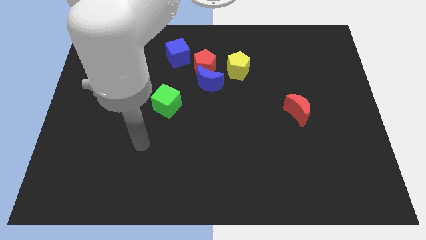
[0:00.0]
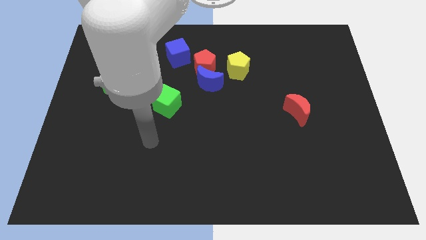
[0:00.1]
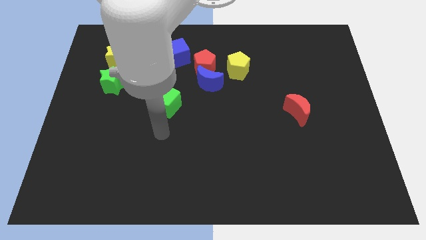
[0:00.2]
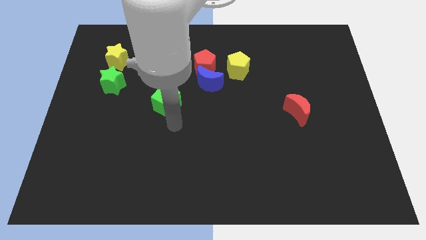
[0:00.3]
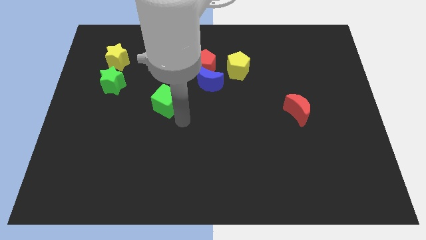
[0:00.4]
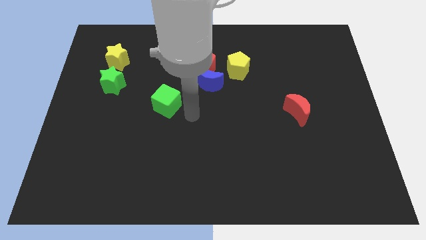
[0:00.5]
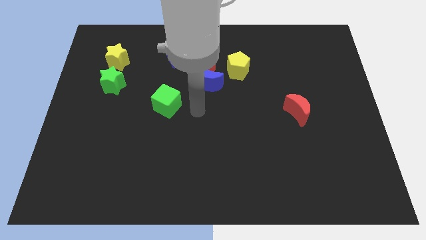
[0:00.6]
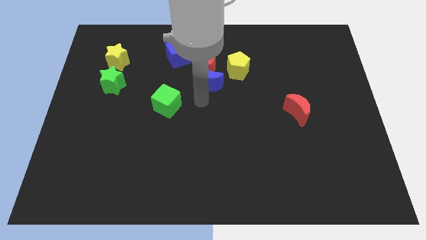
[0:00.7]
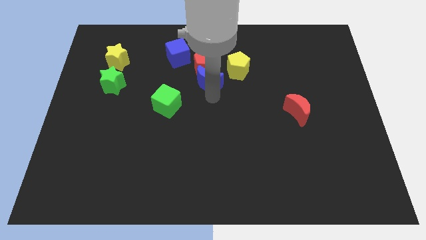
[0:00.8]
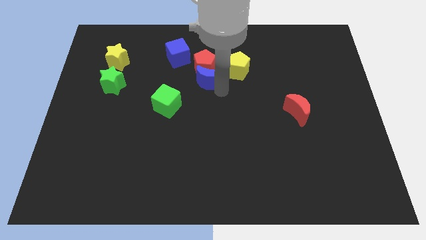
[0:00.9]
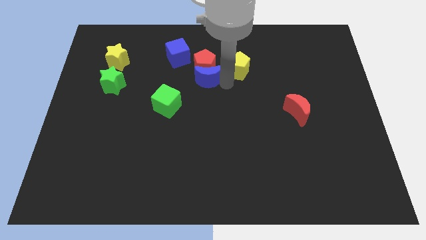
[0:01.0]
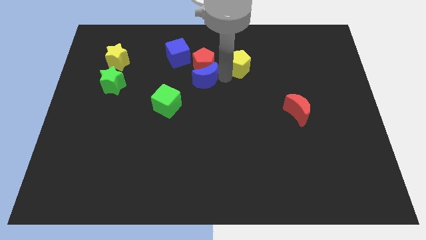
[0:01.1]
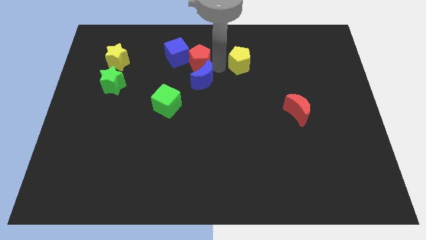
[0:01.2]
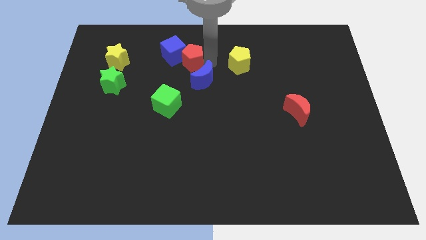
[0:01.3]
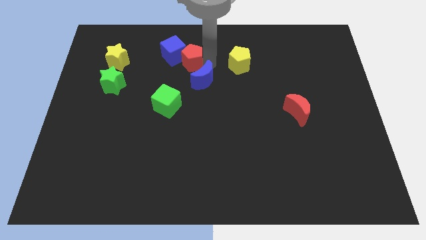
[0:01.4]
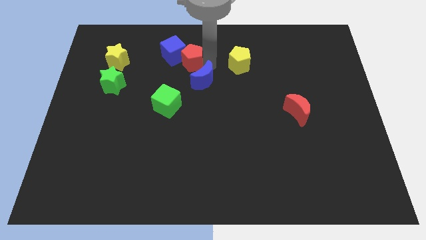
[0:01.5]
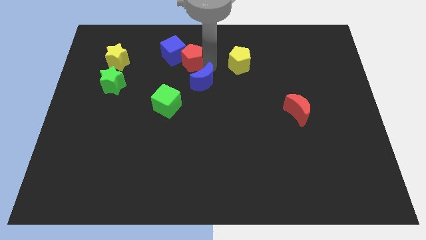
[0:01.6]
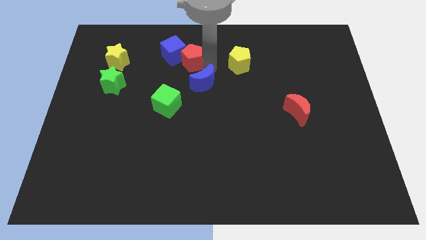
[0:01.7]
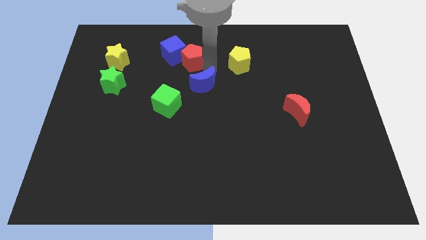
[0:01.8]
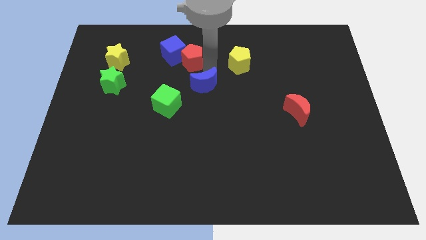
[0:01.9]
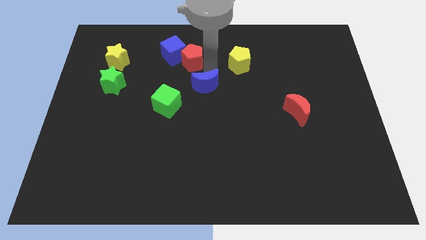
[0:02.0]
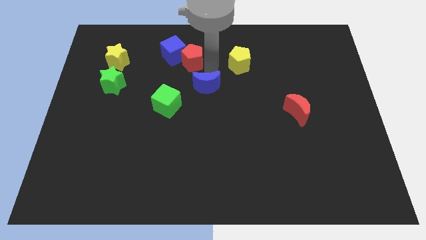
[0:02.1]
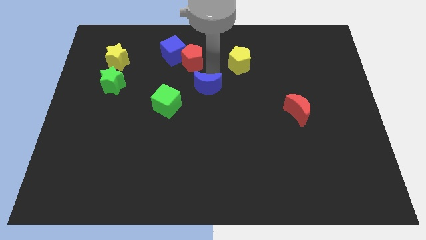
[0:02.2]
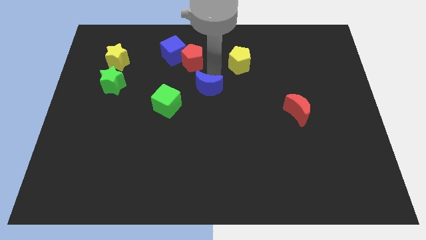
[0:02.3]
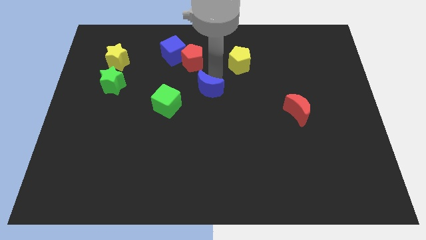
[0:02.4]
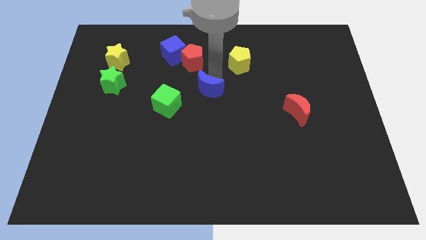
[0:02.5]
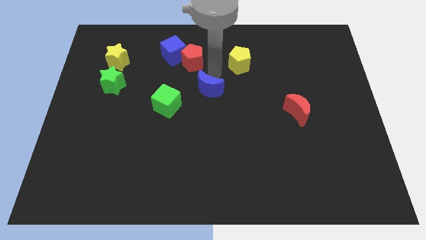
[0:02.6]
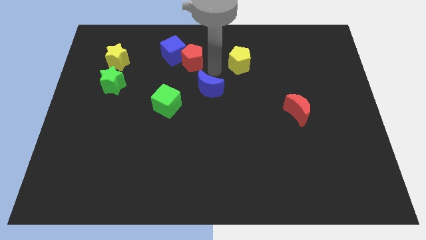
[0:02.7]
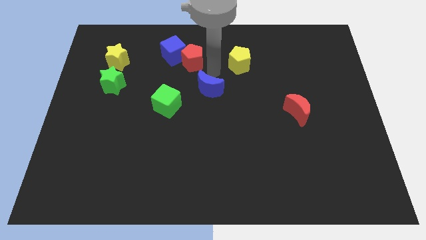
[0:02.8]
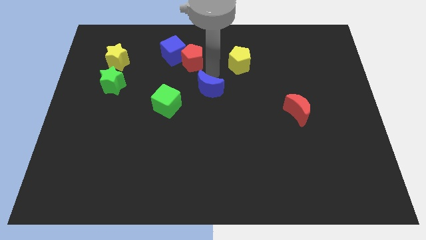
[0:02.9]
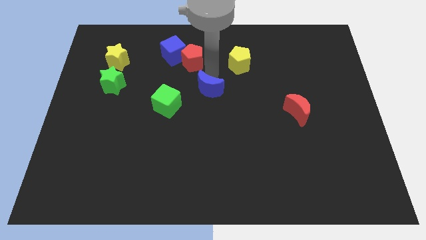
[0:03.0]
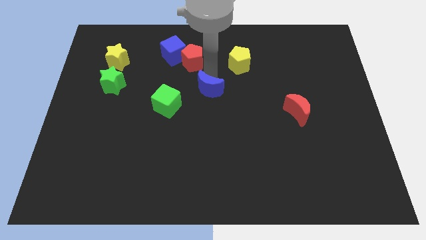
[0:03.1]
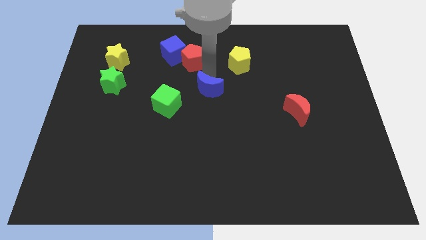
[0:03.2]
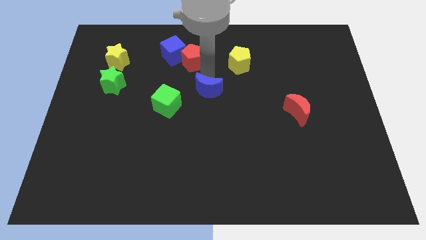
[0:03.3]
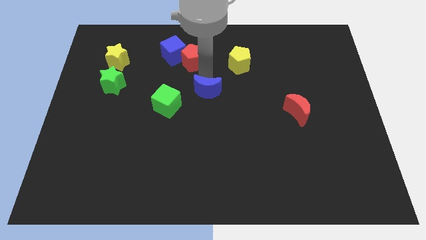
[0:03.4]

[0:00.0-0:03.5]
separate the blue moon from the red pentagon and yellow pentagon

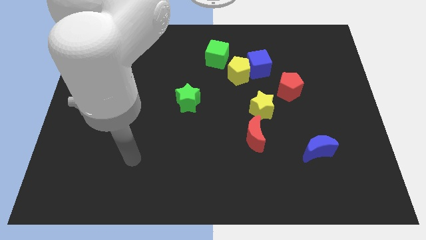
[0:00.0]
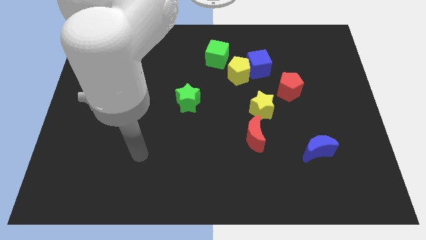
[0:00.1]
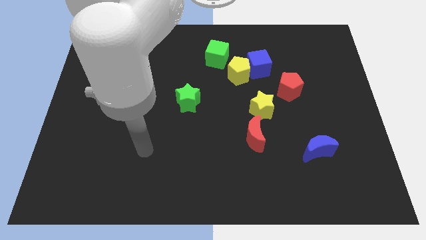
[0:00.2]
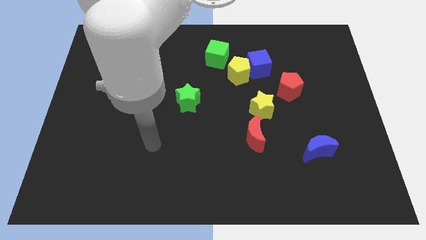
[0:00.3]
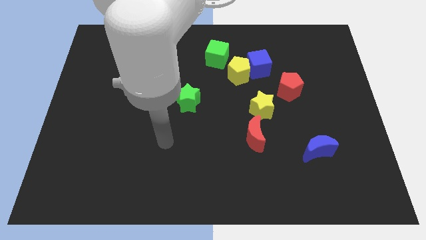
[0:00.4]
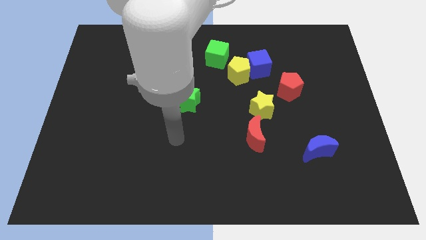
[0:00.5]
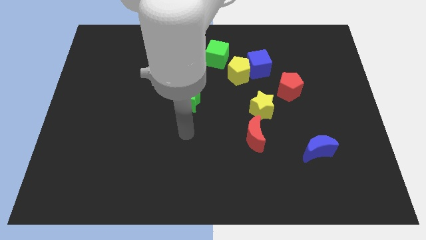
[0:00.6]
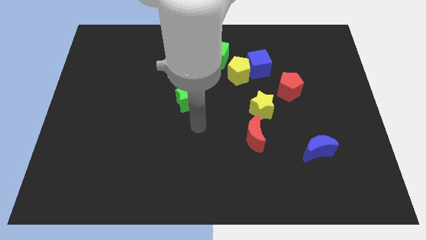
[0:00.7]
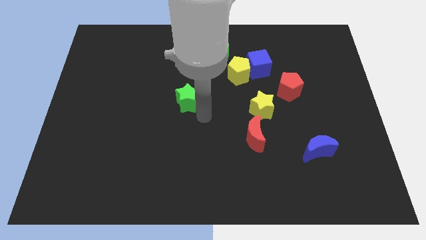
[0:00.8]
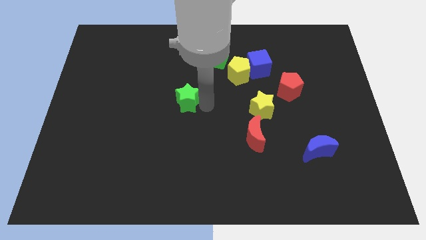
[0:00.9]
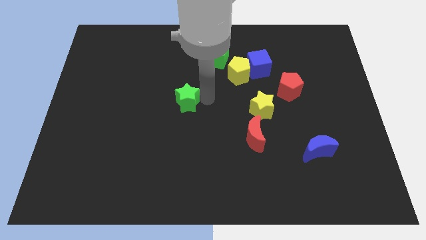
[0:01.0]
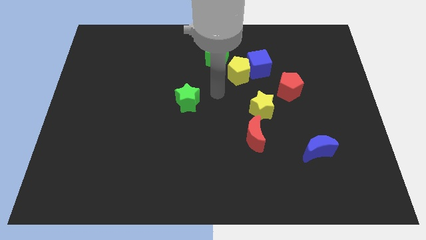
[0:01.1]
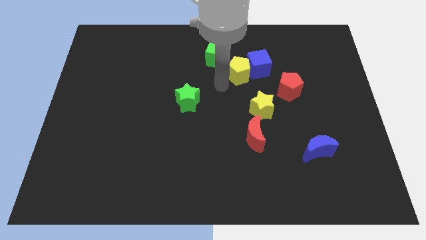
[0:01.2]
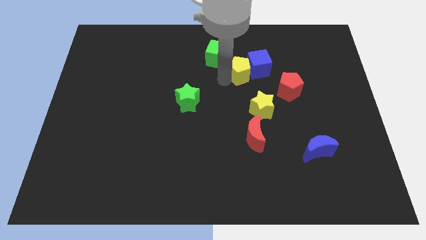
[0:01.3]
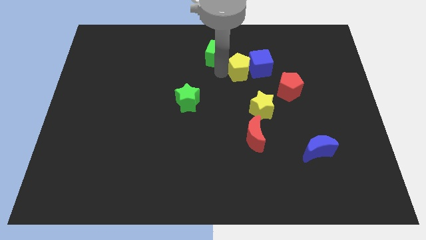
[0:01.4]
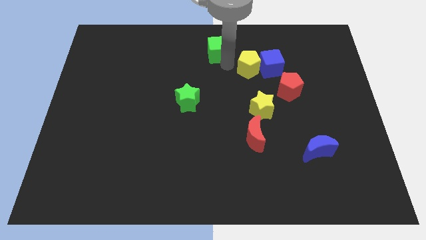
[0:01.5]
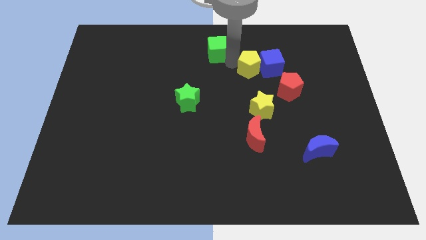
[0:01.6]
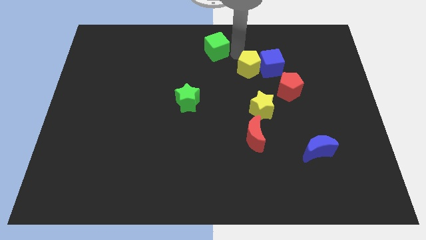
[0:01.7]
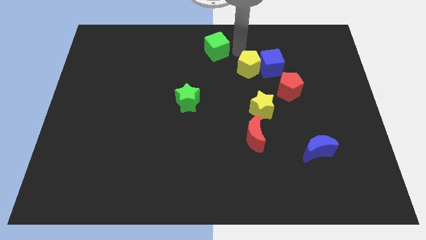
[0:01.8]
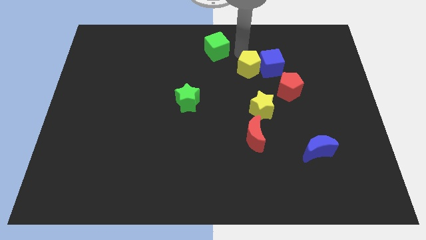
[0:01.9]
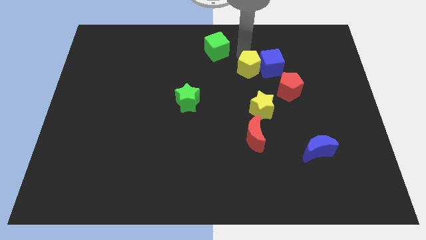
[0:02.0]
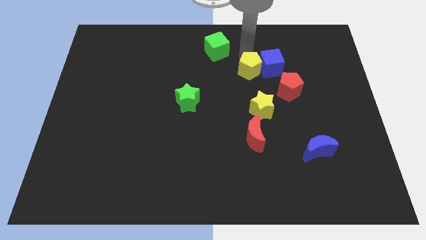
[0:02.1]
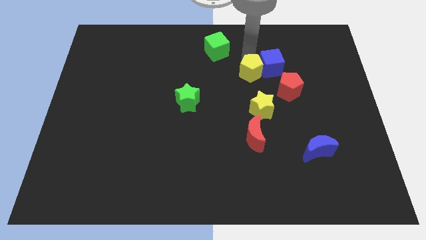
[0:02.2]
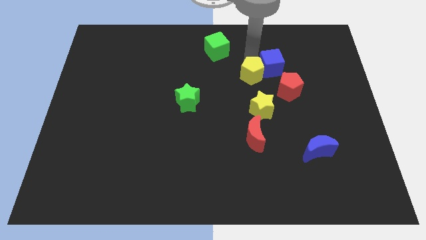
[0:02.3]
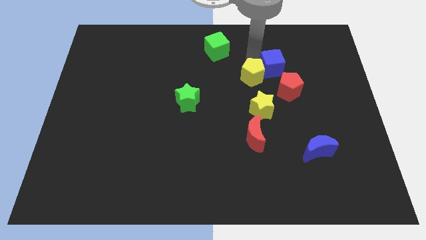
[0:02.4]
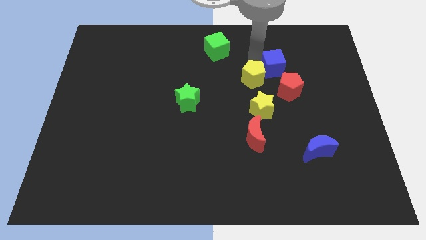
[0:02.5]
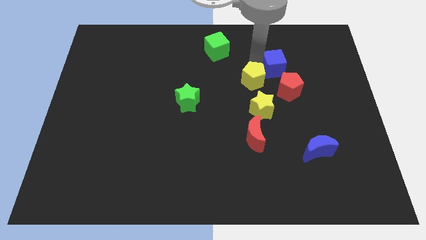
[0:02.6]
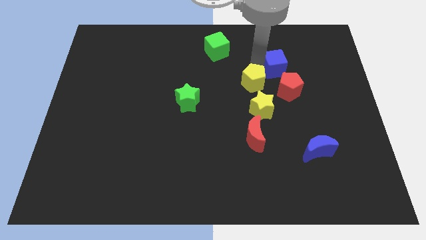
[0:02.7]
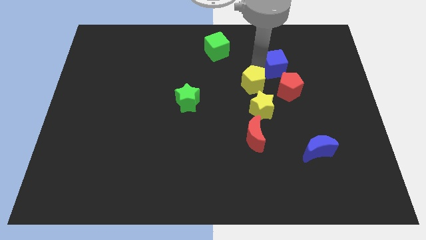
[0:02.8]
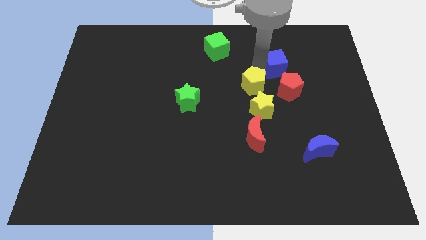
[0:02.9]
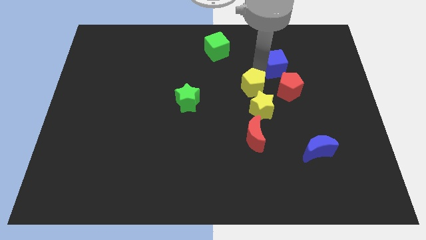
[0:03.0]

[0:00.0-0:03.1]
move the yellow pentagon away from the blue cube and green cube

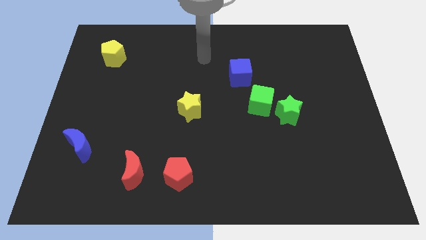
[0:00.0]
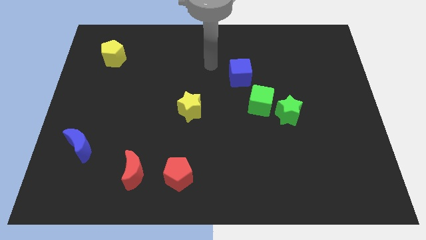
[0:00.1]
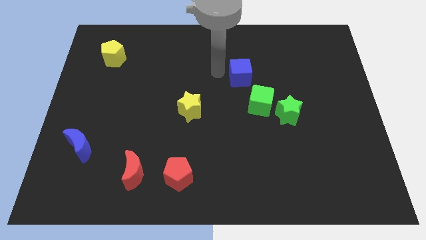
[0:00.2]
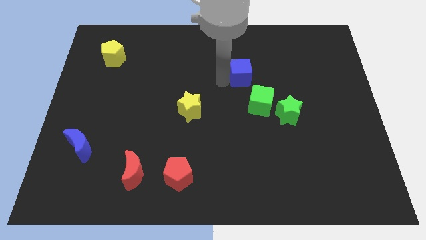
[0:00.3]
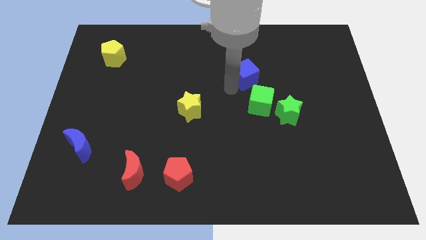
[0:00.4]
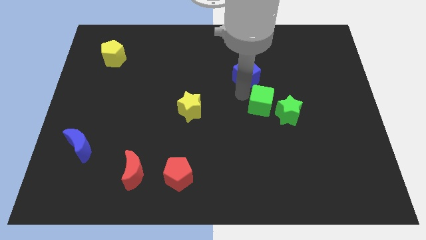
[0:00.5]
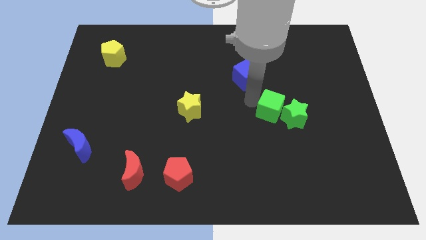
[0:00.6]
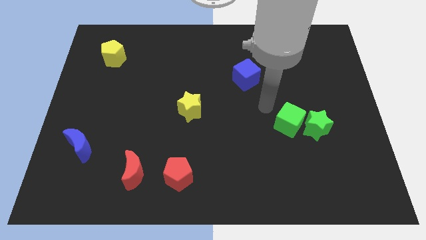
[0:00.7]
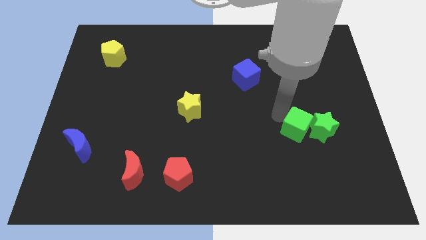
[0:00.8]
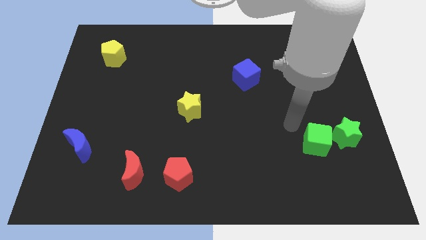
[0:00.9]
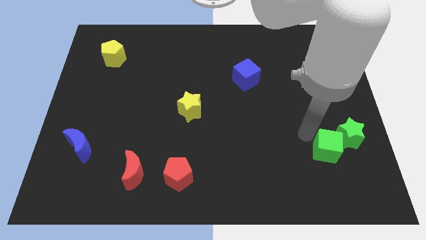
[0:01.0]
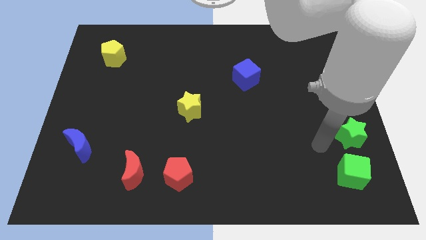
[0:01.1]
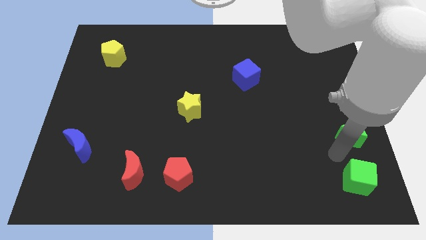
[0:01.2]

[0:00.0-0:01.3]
separate the green star from the green cube

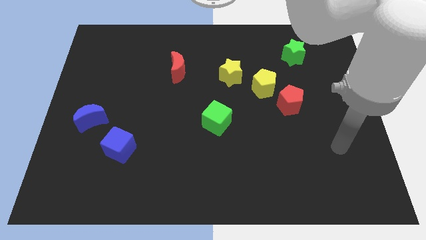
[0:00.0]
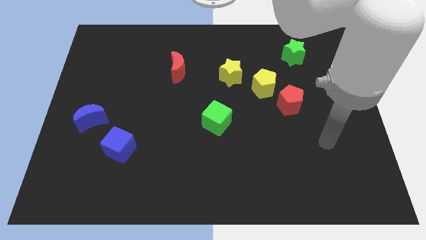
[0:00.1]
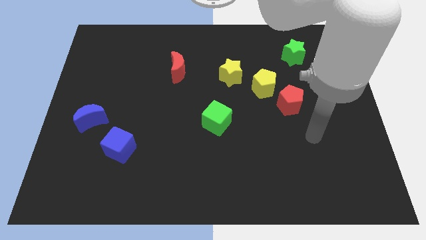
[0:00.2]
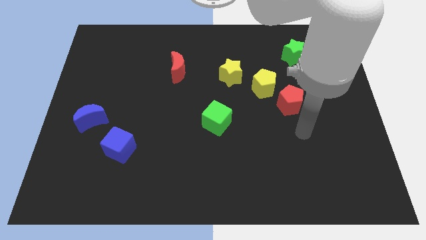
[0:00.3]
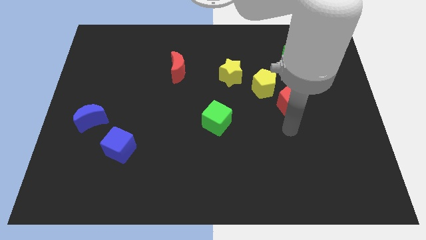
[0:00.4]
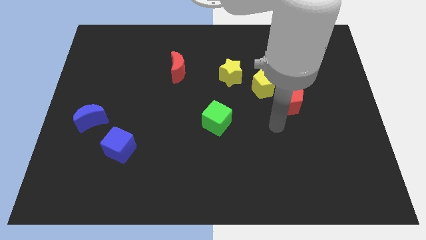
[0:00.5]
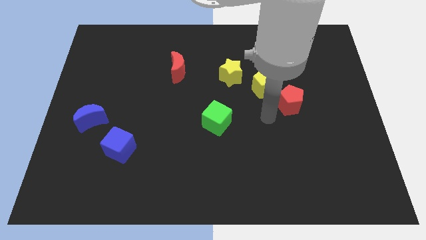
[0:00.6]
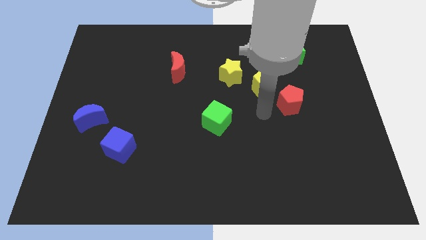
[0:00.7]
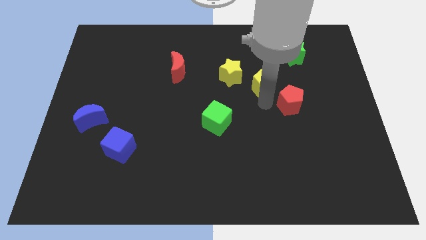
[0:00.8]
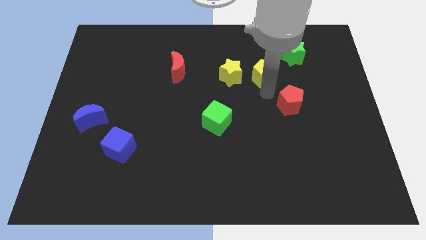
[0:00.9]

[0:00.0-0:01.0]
move the red pentagon away from the yellow pentagon

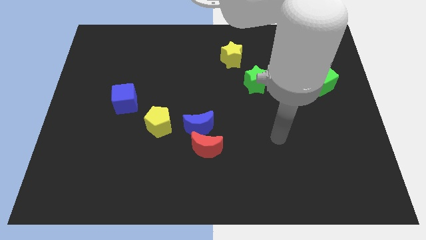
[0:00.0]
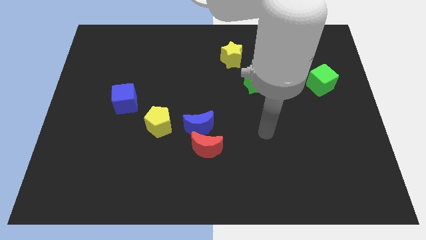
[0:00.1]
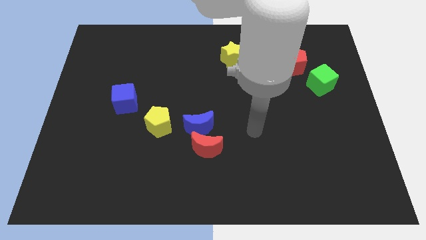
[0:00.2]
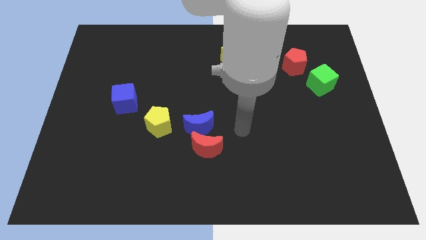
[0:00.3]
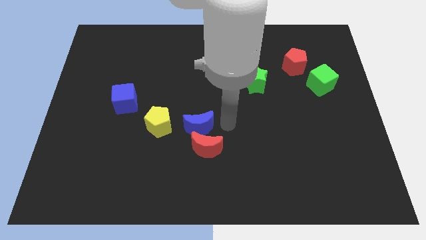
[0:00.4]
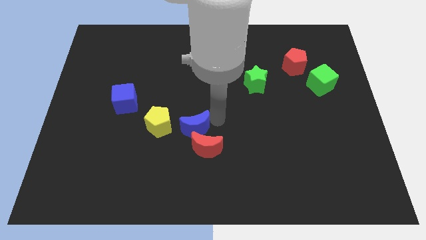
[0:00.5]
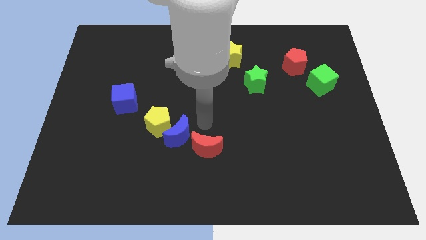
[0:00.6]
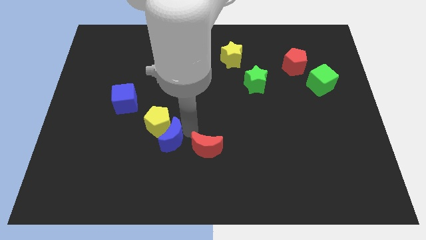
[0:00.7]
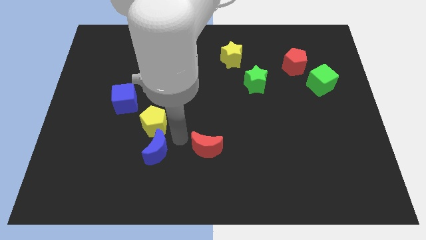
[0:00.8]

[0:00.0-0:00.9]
pull the red moon apart from the blue moon
